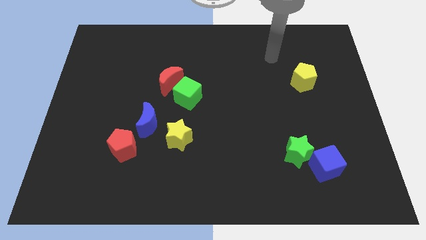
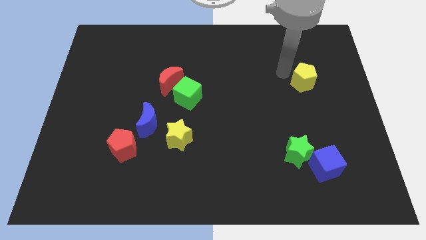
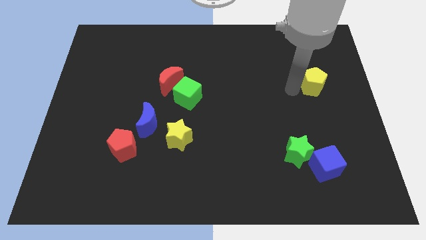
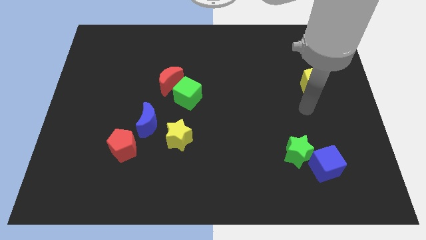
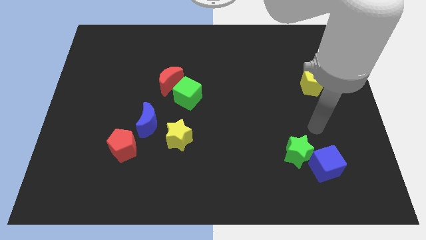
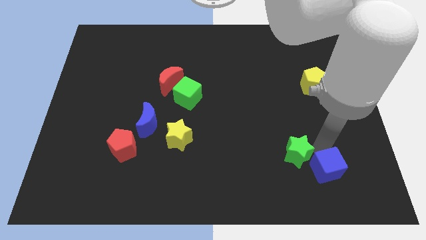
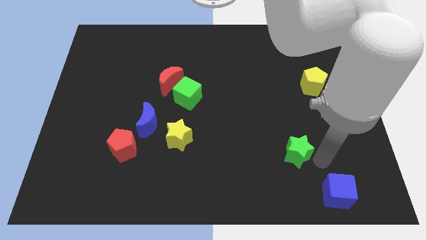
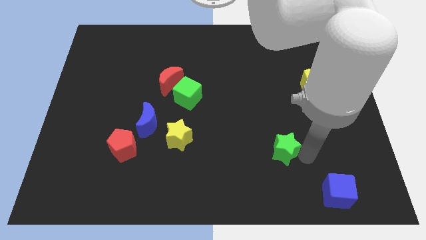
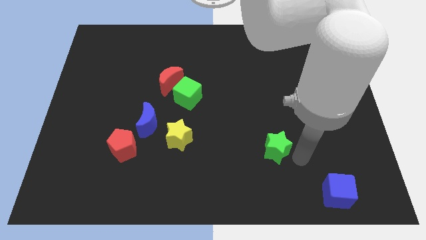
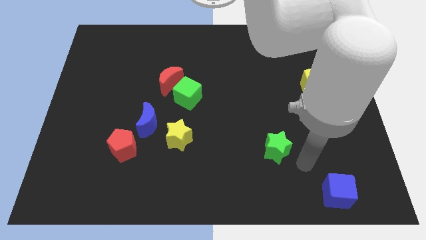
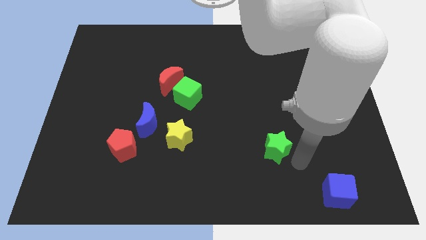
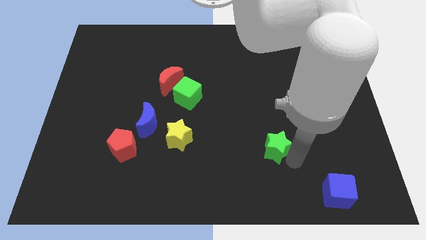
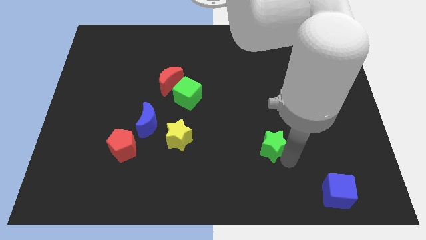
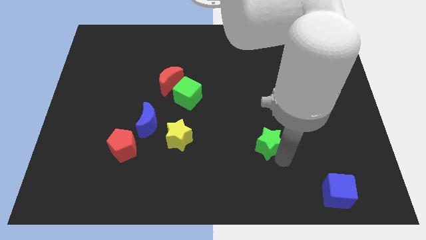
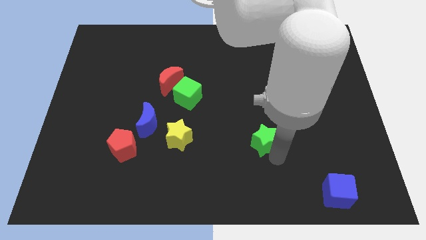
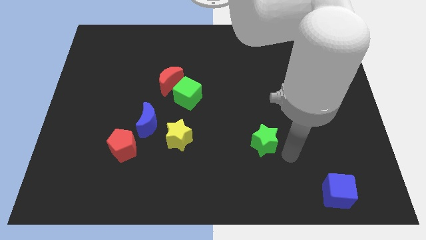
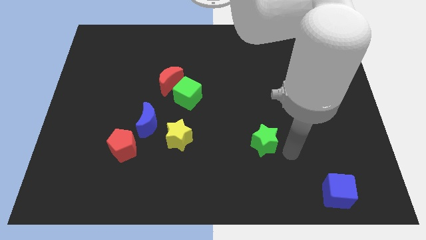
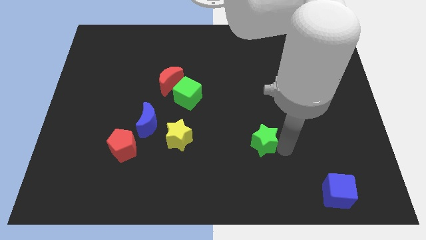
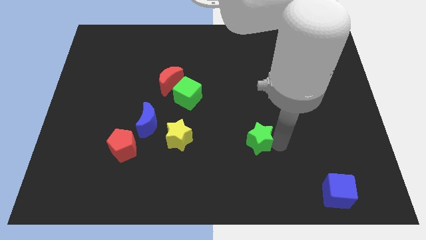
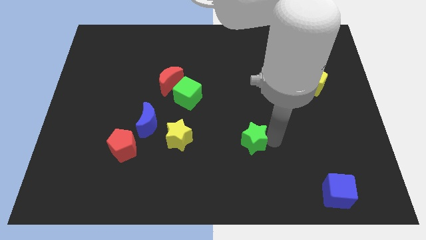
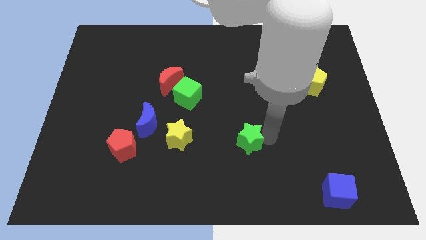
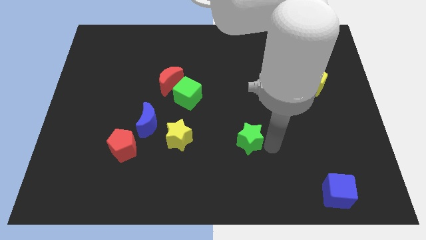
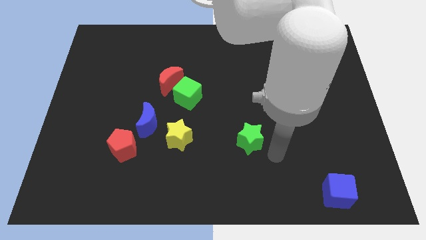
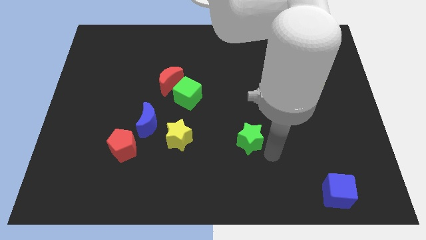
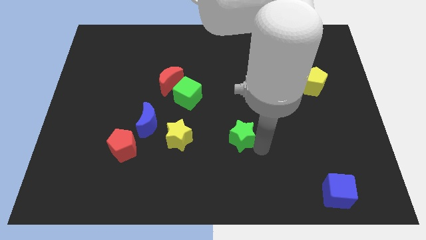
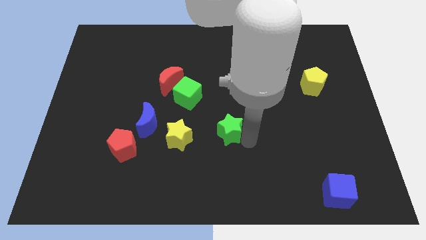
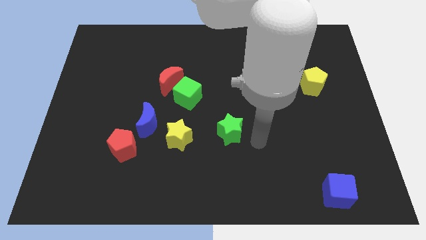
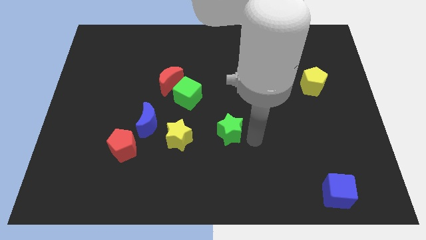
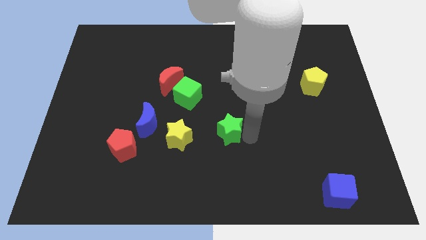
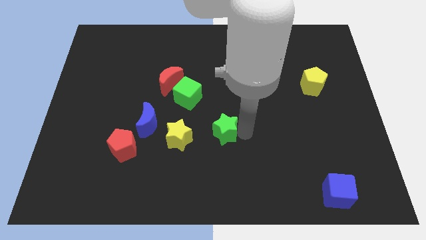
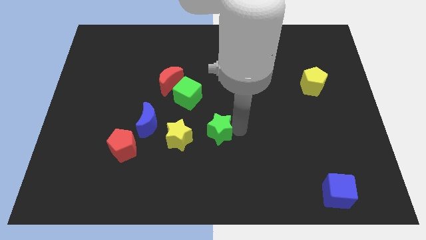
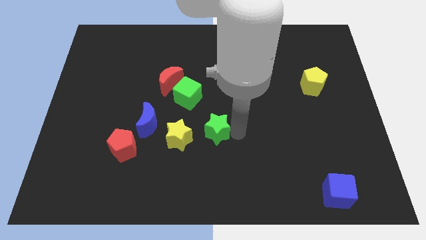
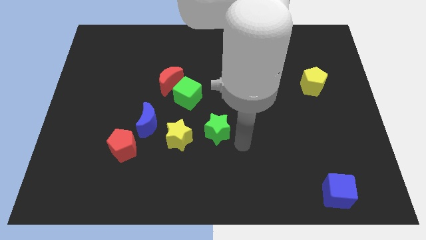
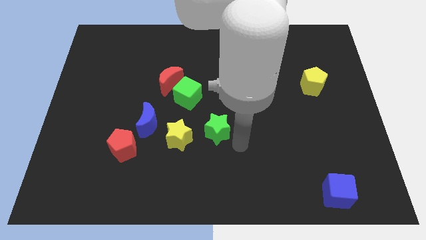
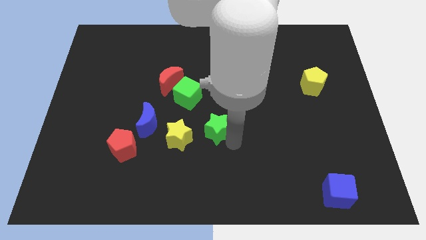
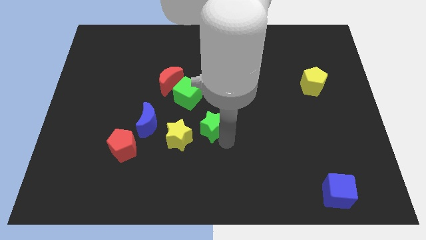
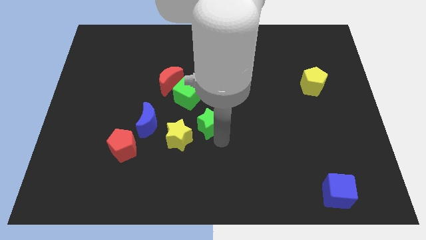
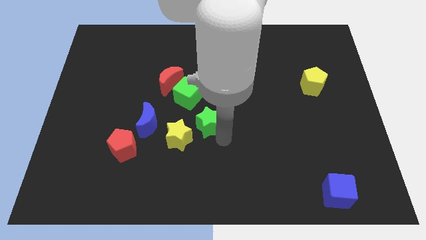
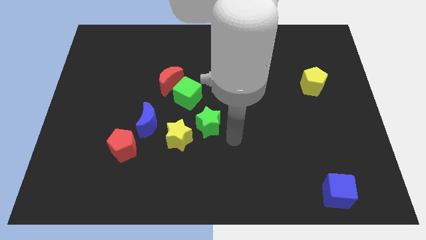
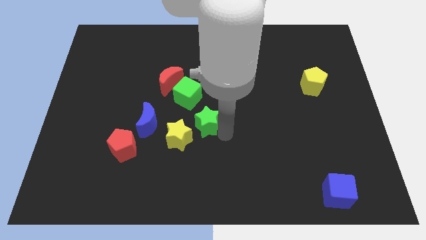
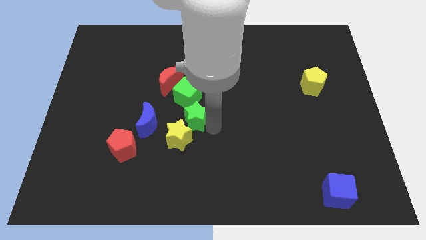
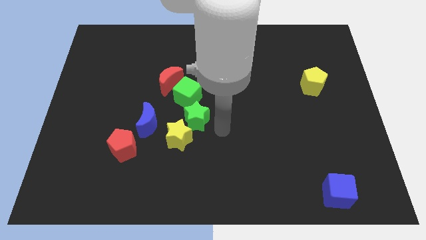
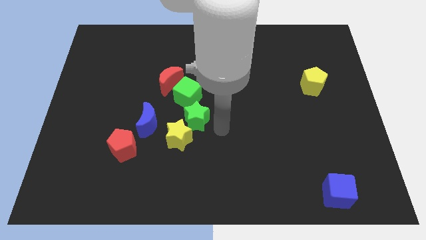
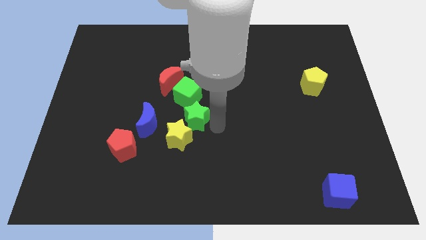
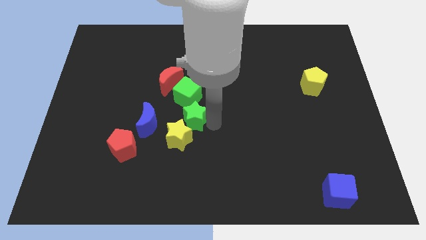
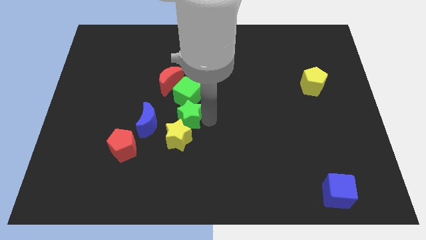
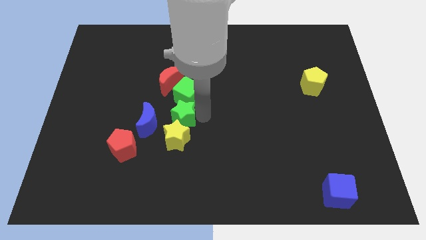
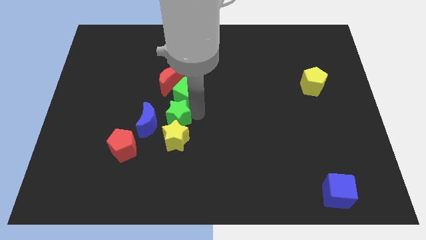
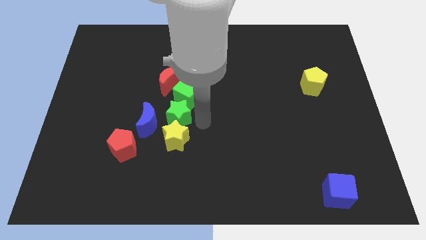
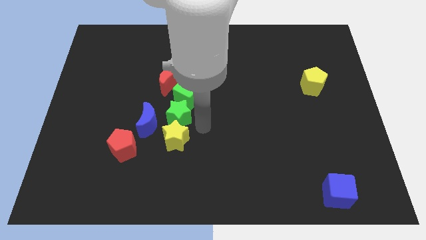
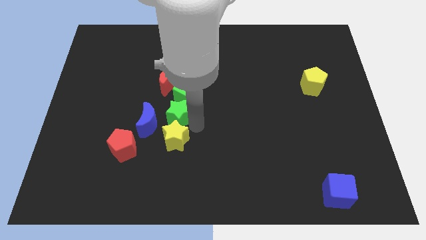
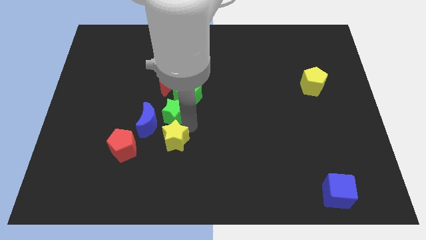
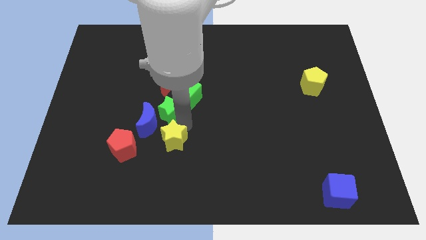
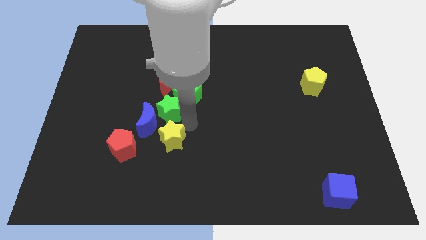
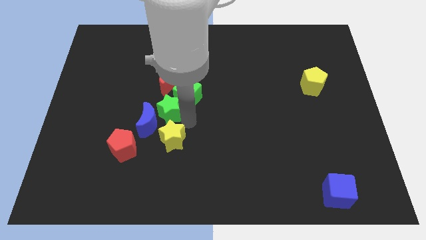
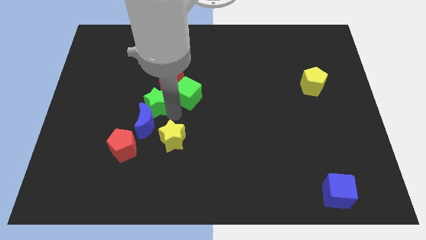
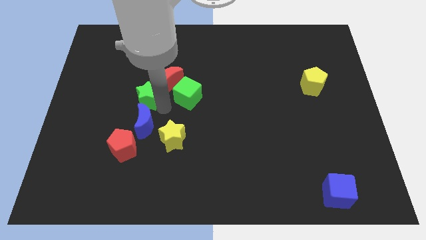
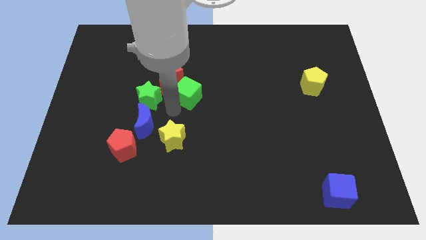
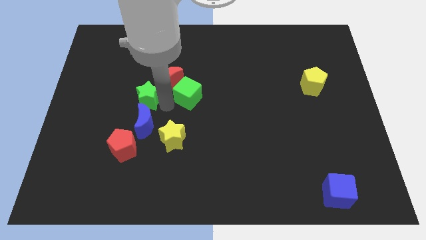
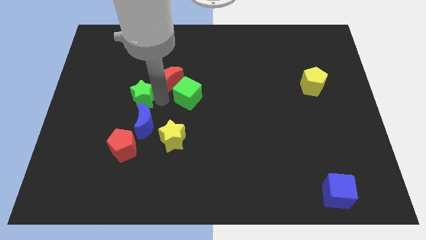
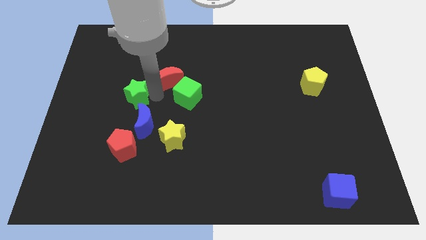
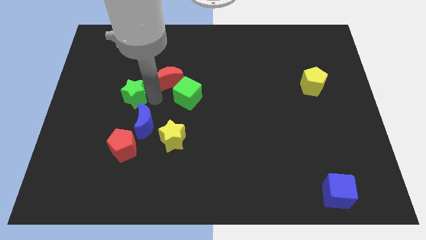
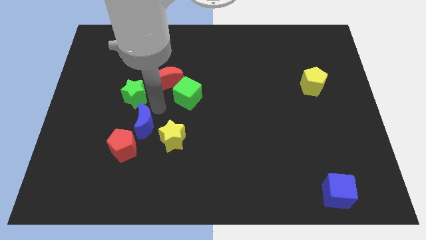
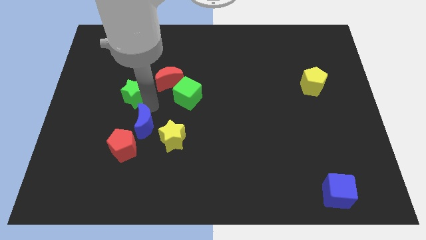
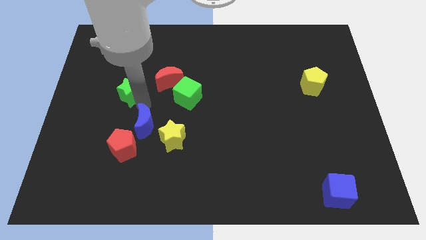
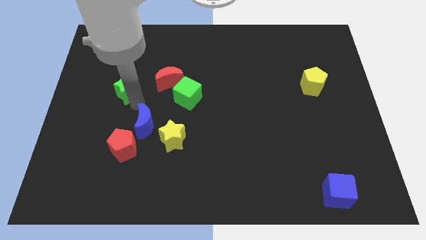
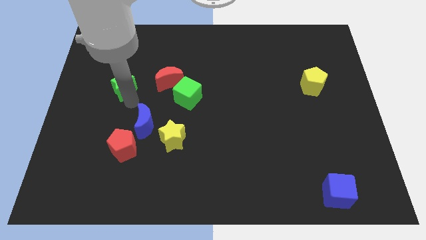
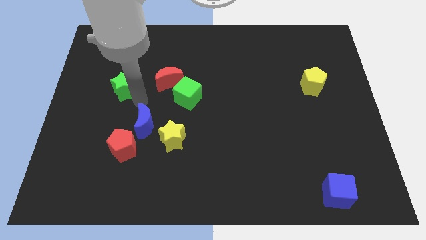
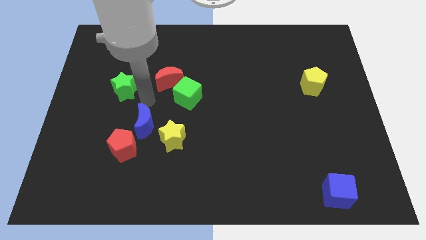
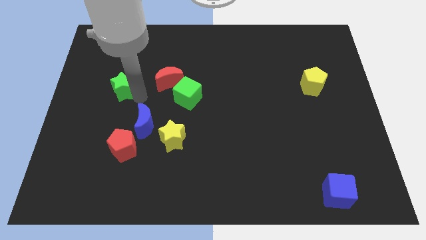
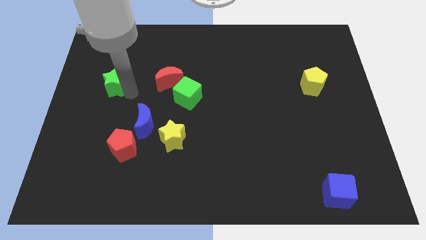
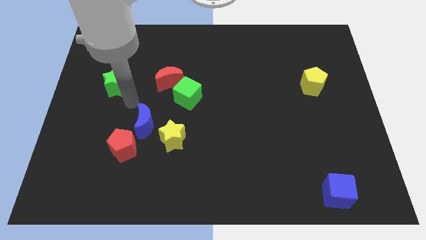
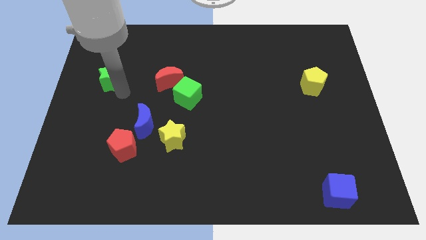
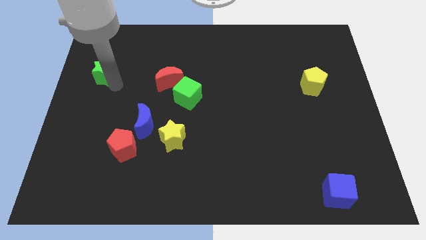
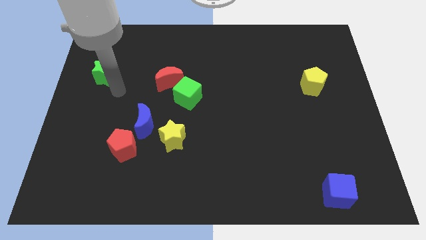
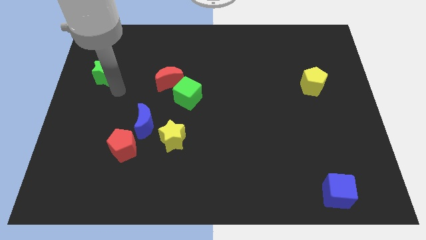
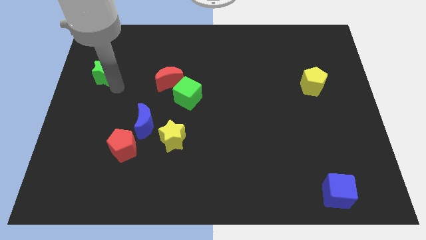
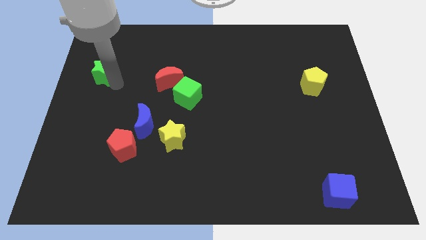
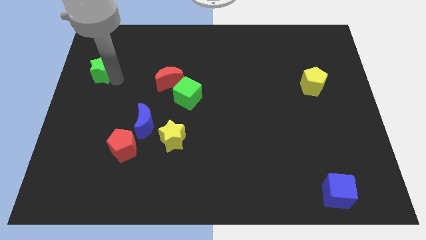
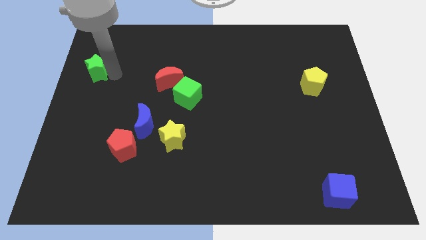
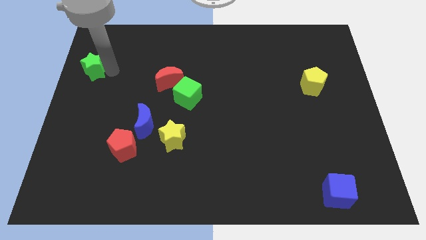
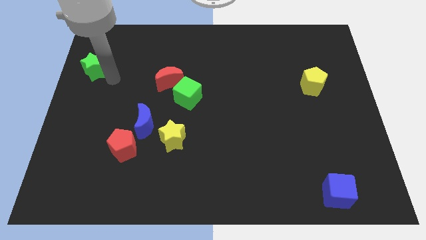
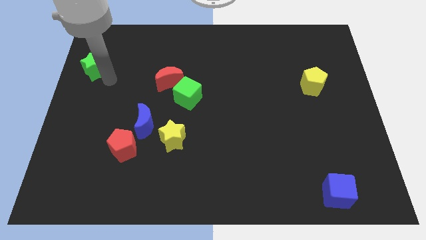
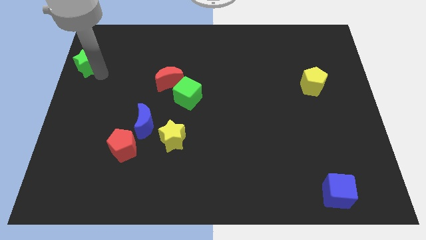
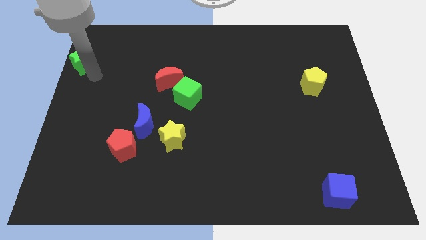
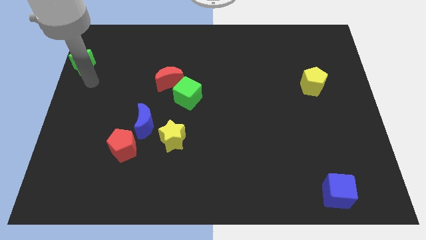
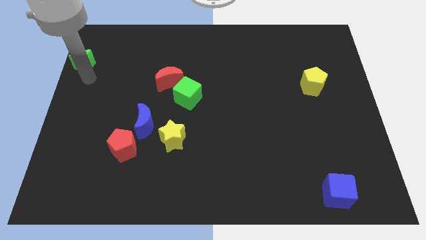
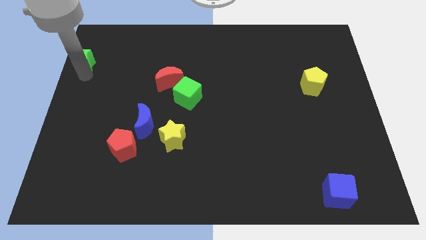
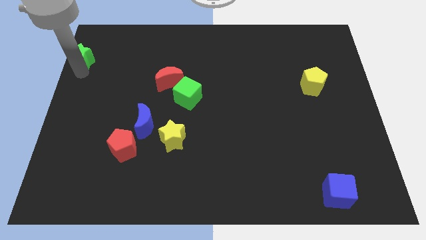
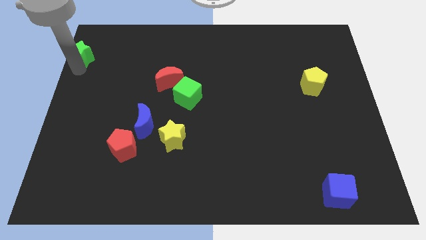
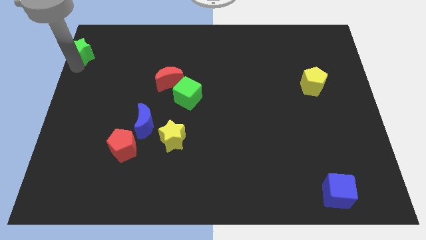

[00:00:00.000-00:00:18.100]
put the green star to the top left corner
